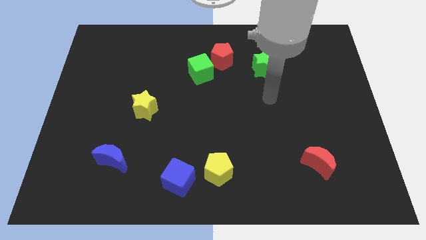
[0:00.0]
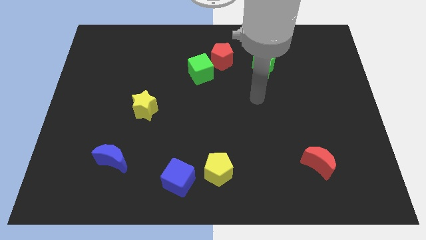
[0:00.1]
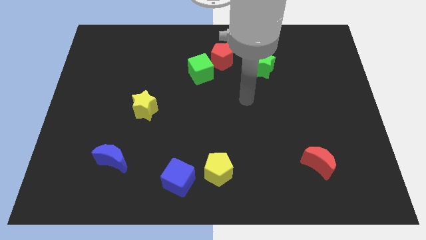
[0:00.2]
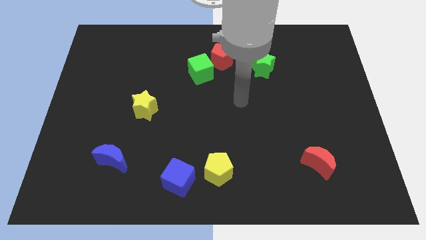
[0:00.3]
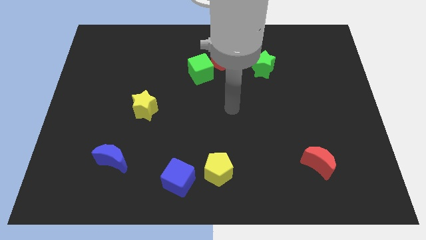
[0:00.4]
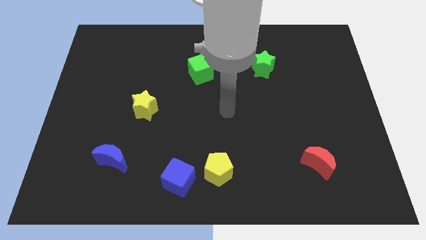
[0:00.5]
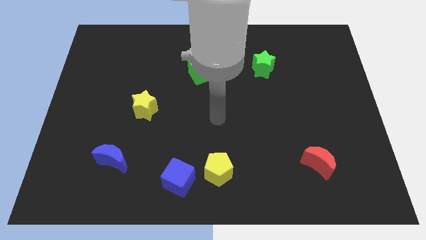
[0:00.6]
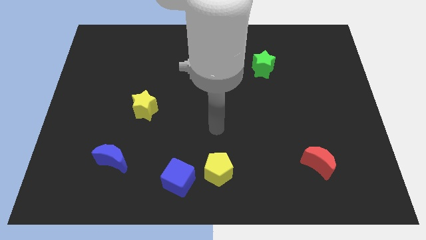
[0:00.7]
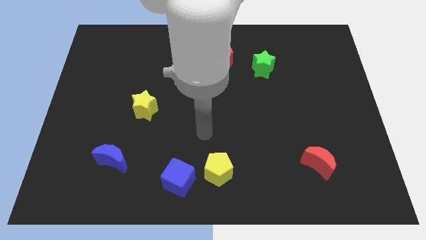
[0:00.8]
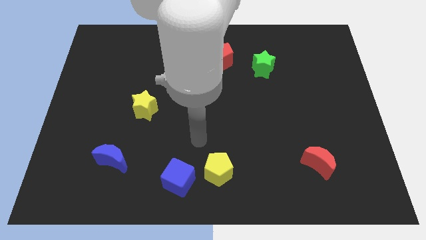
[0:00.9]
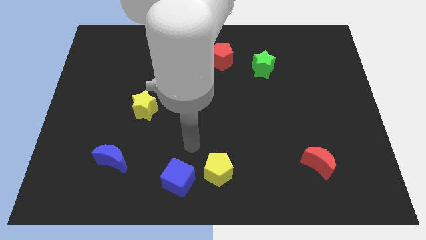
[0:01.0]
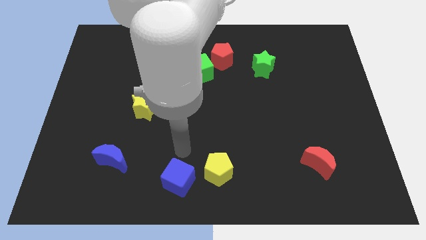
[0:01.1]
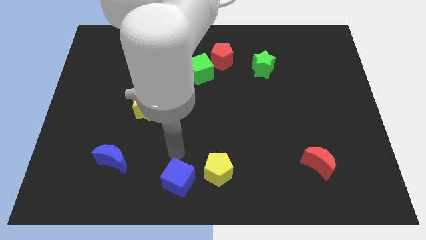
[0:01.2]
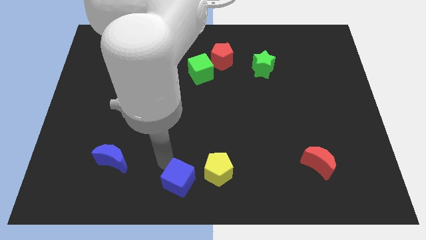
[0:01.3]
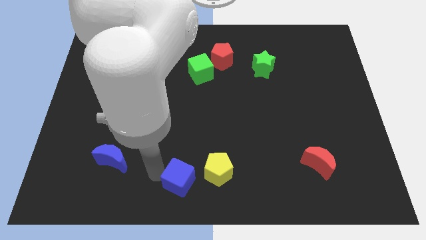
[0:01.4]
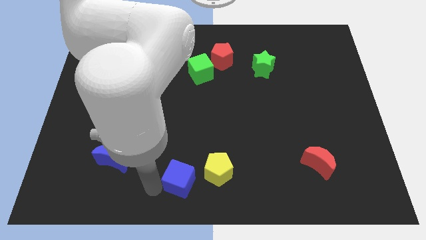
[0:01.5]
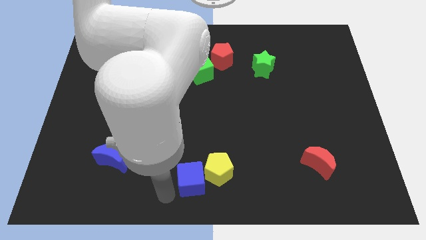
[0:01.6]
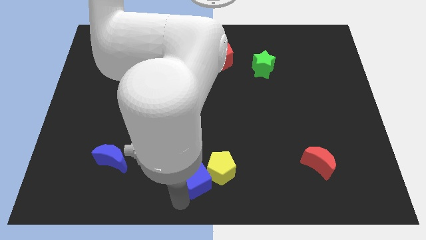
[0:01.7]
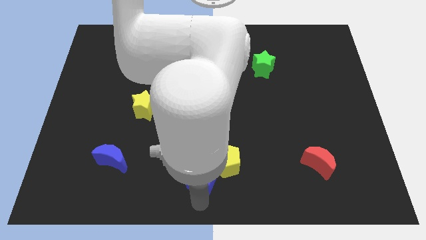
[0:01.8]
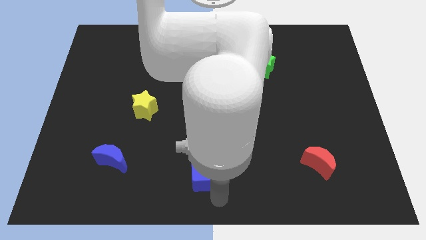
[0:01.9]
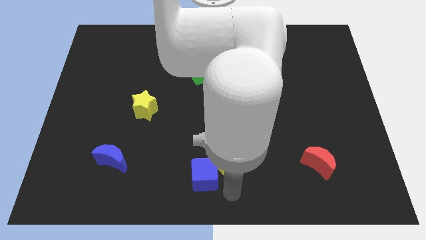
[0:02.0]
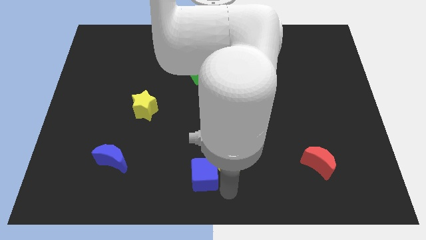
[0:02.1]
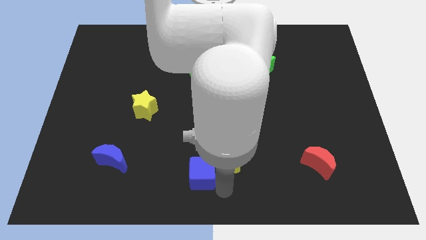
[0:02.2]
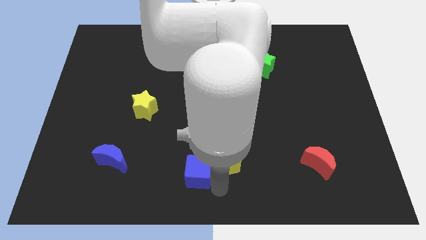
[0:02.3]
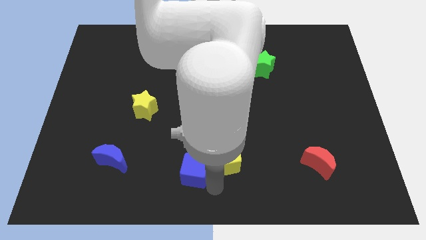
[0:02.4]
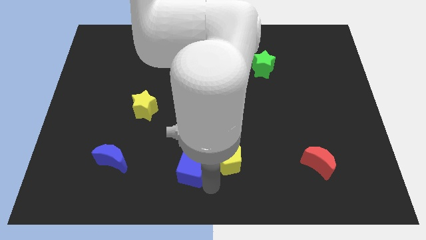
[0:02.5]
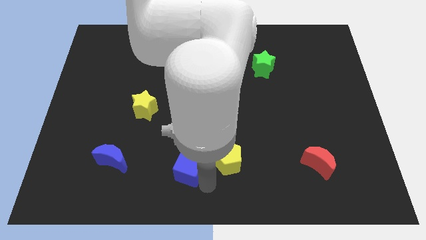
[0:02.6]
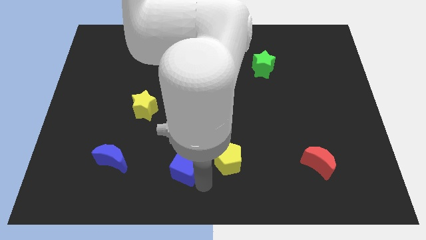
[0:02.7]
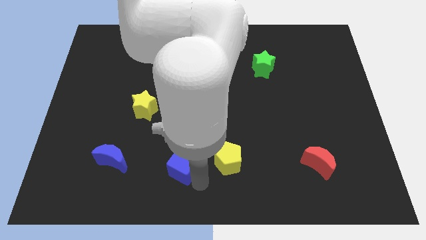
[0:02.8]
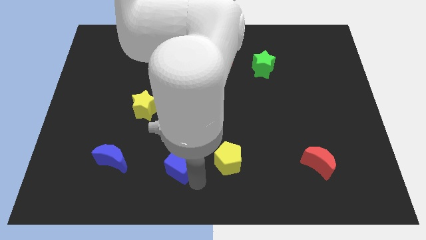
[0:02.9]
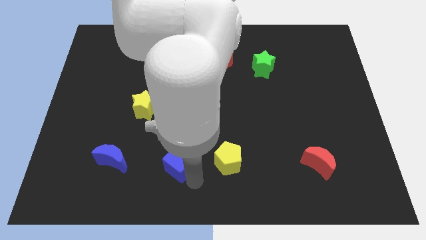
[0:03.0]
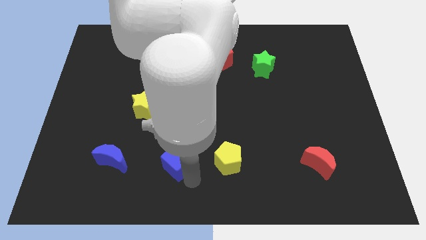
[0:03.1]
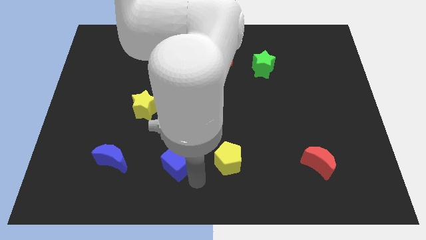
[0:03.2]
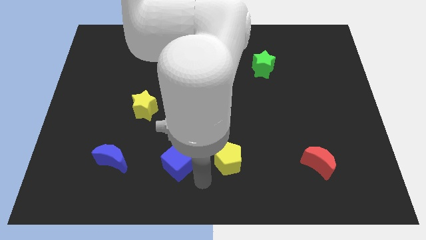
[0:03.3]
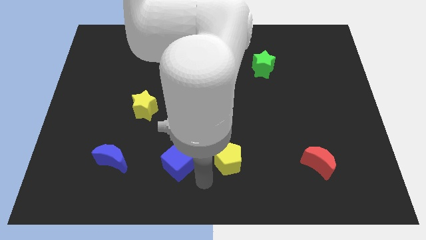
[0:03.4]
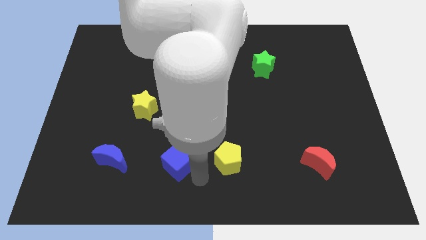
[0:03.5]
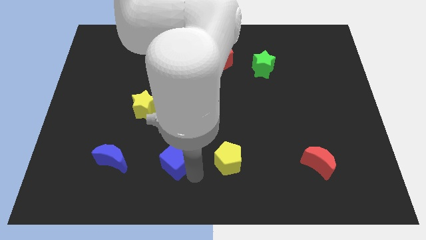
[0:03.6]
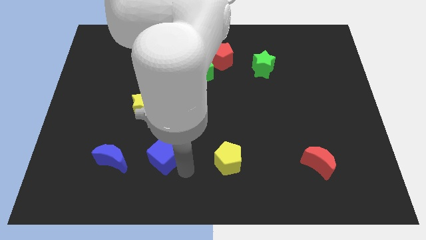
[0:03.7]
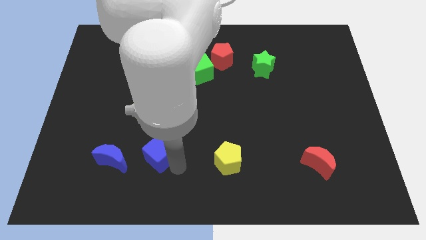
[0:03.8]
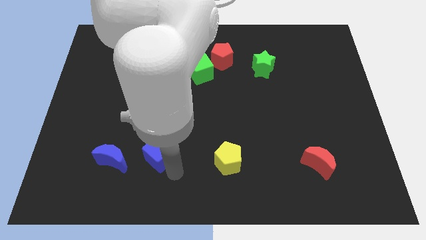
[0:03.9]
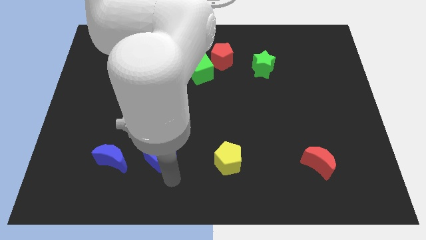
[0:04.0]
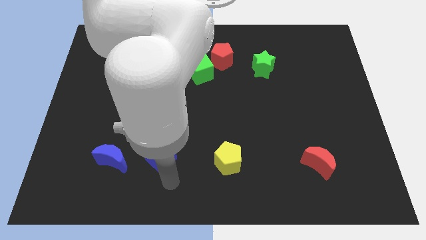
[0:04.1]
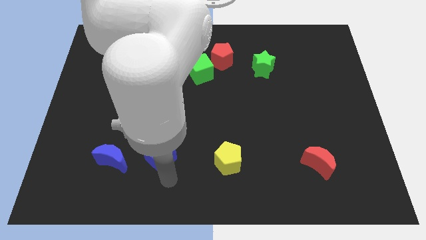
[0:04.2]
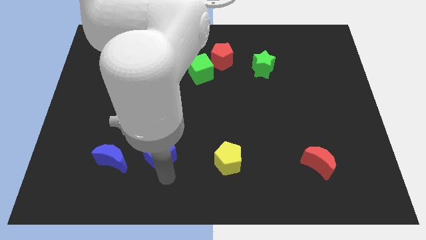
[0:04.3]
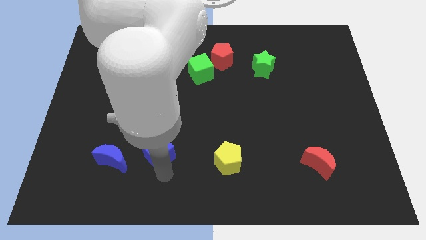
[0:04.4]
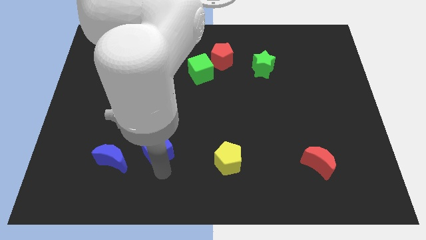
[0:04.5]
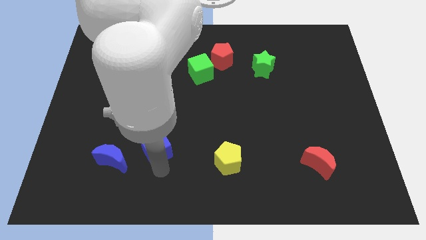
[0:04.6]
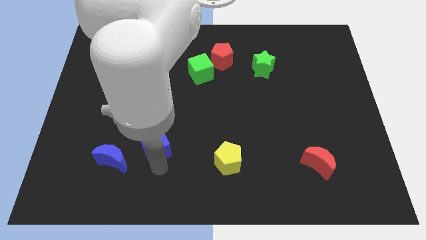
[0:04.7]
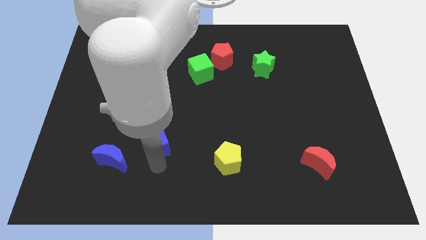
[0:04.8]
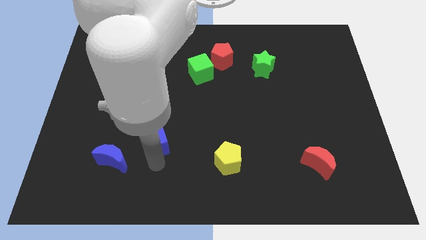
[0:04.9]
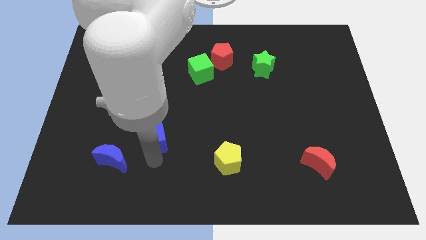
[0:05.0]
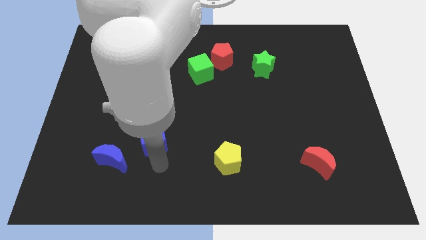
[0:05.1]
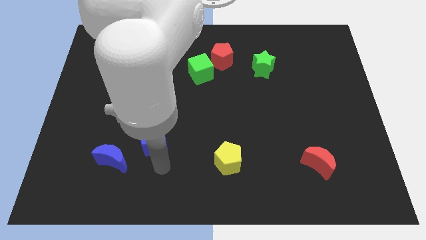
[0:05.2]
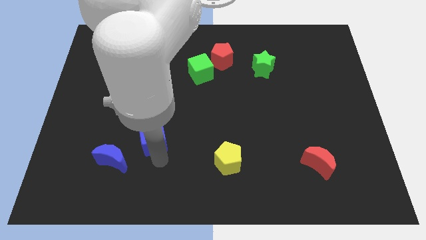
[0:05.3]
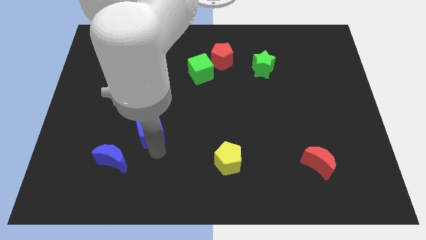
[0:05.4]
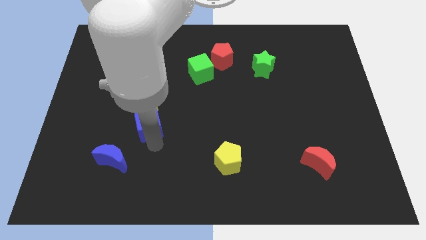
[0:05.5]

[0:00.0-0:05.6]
slide the blue cube close to the yellow star

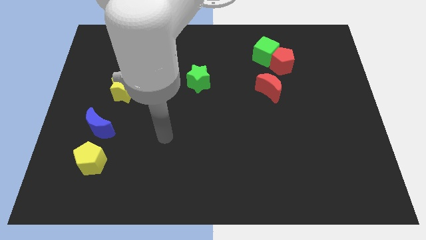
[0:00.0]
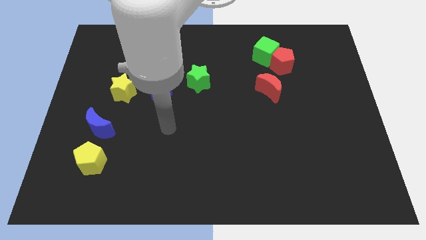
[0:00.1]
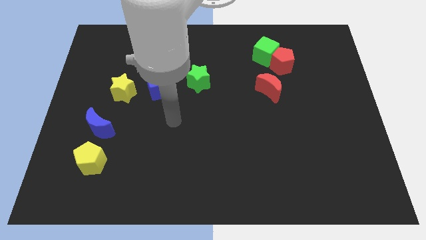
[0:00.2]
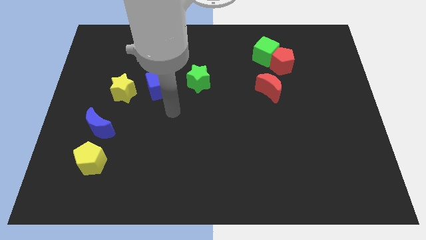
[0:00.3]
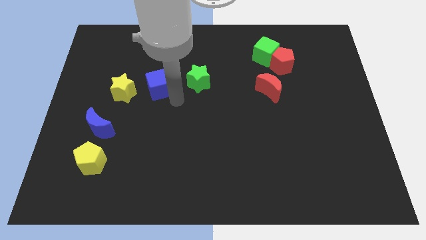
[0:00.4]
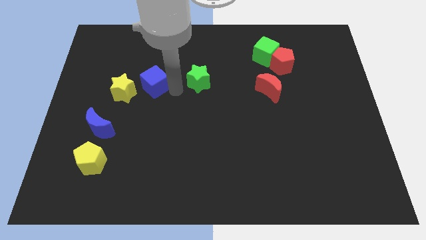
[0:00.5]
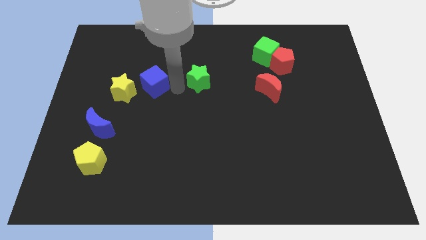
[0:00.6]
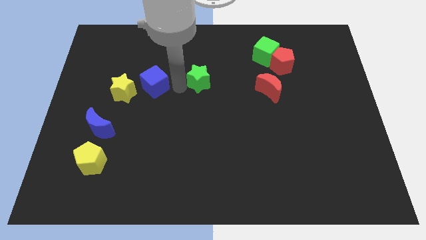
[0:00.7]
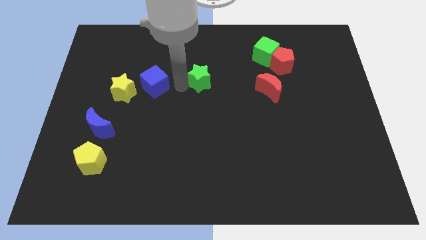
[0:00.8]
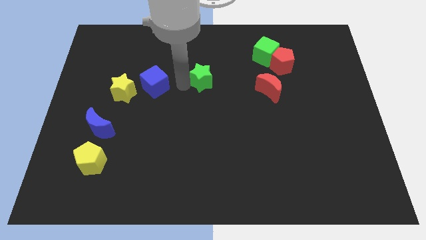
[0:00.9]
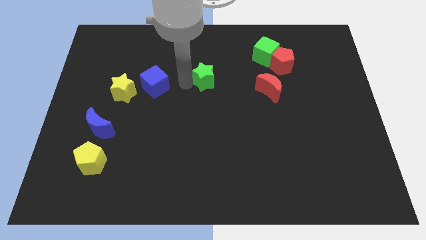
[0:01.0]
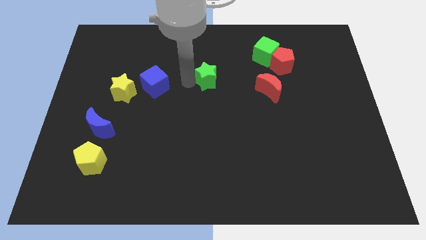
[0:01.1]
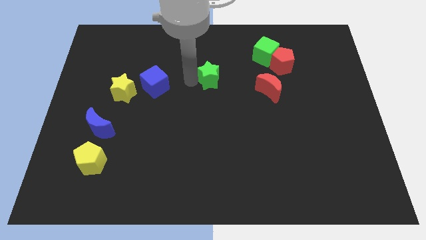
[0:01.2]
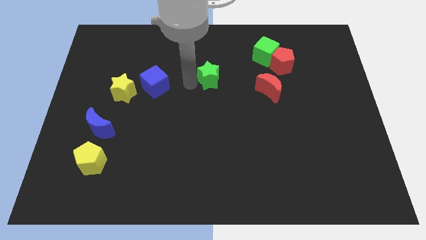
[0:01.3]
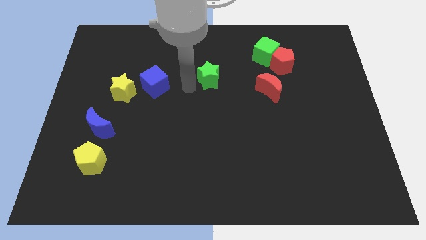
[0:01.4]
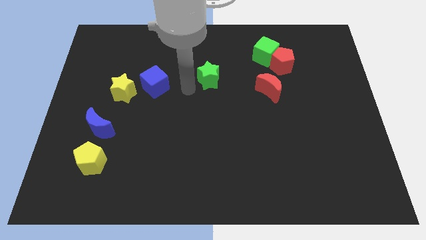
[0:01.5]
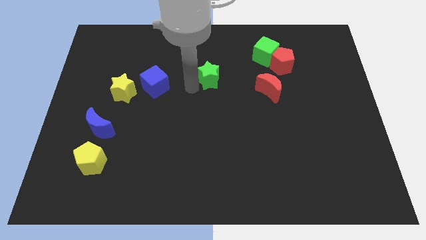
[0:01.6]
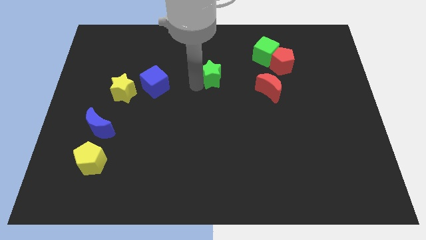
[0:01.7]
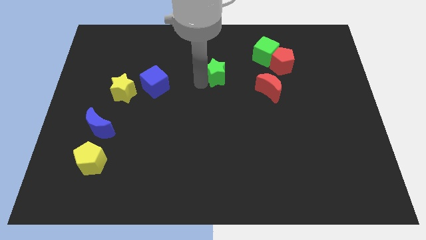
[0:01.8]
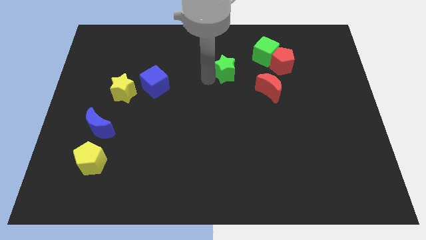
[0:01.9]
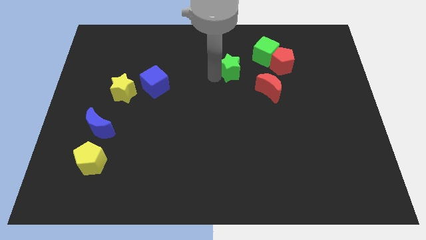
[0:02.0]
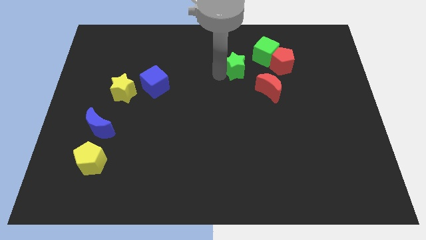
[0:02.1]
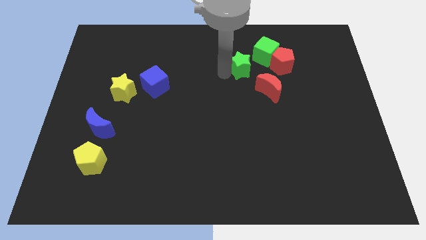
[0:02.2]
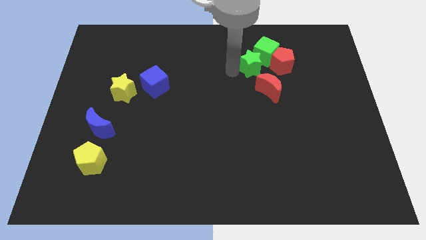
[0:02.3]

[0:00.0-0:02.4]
slide the green star next to the green cube
